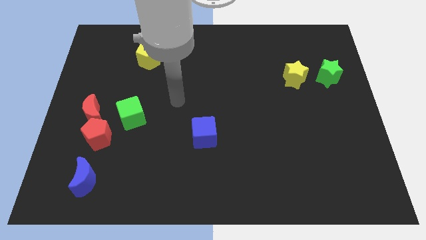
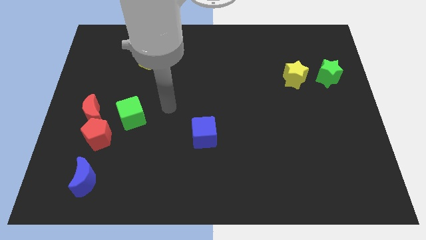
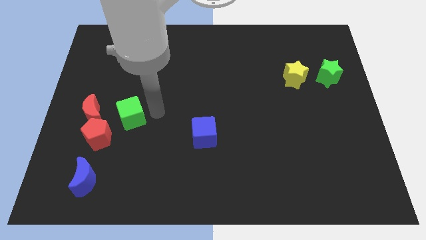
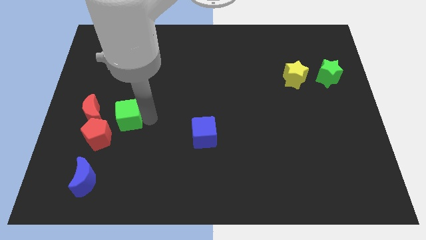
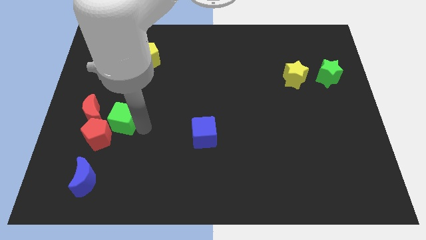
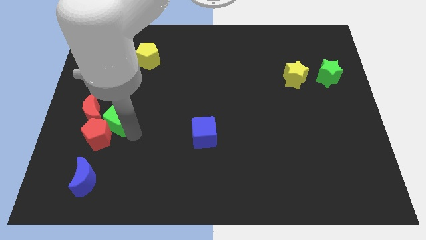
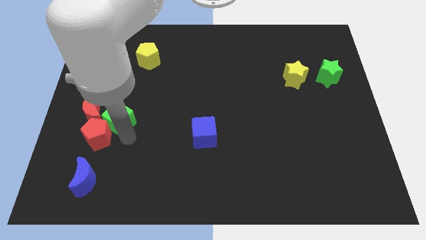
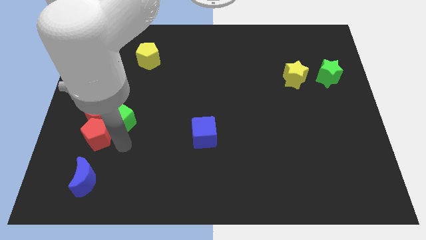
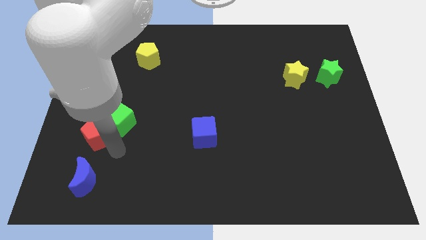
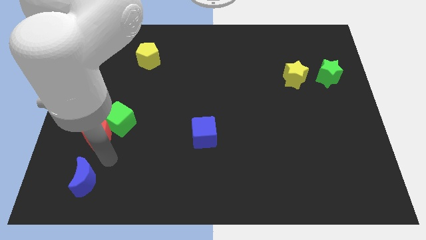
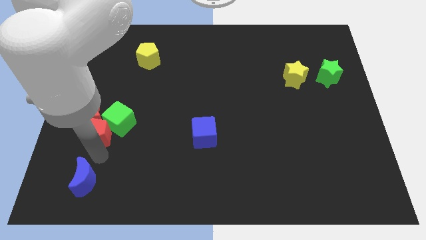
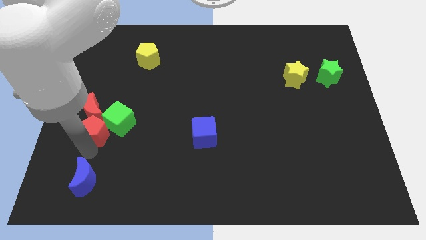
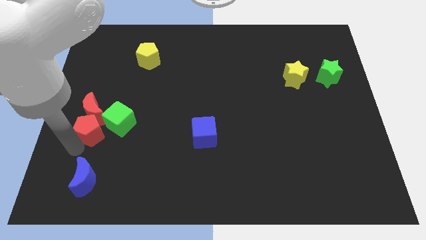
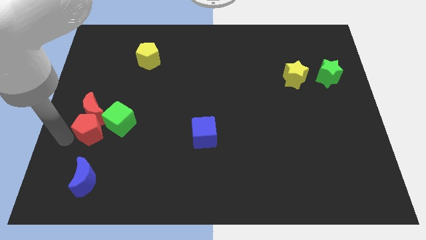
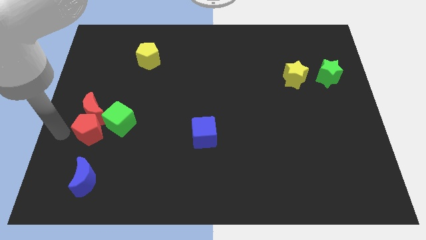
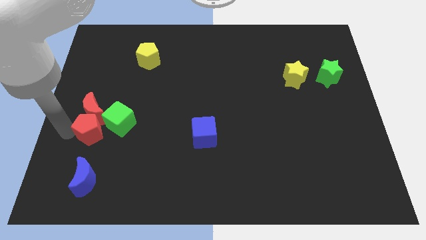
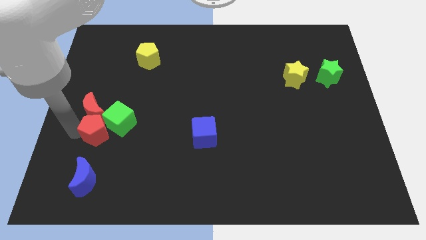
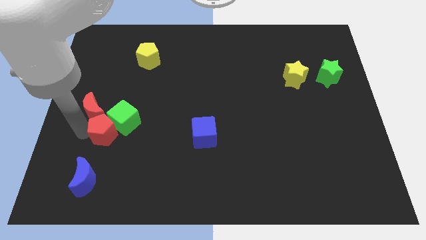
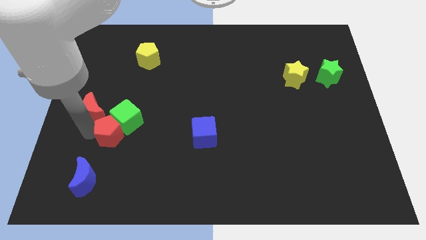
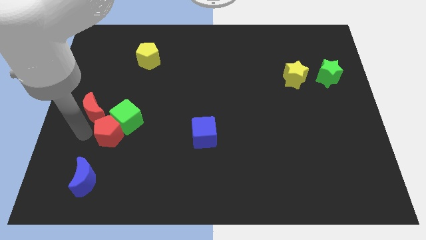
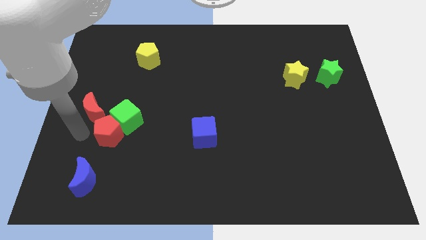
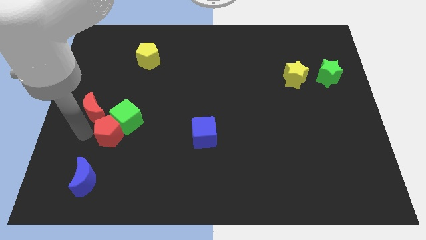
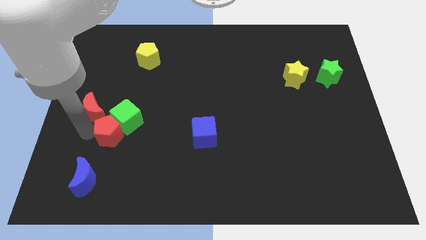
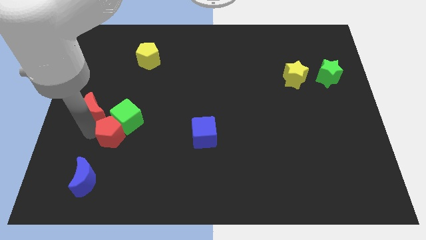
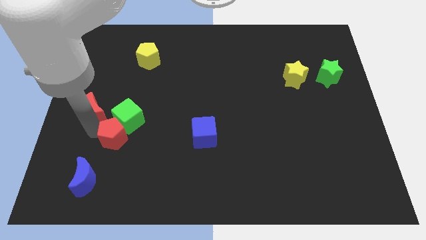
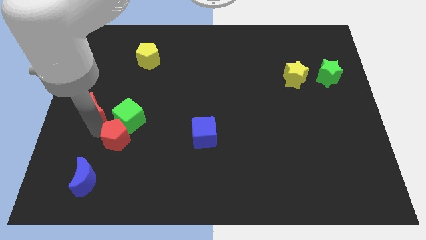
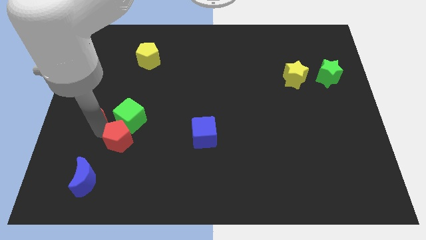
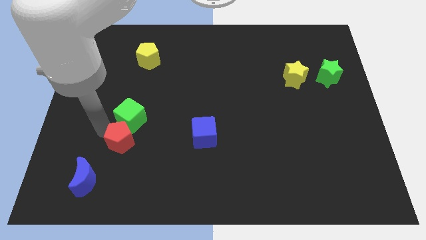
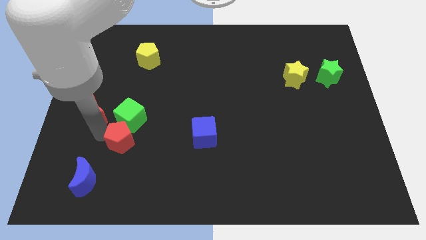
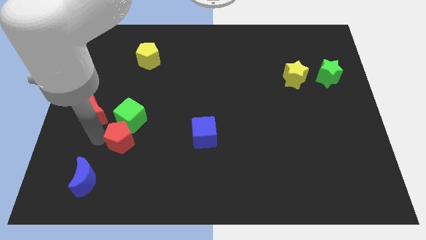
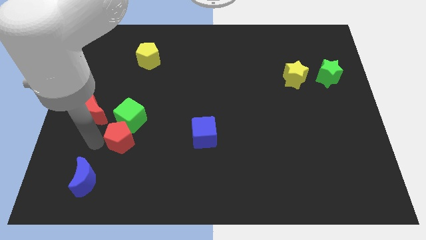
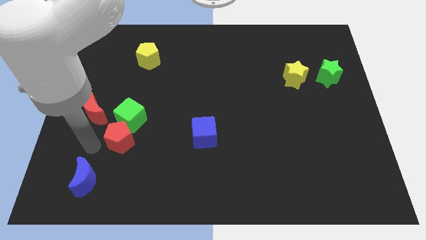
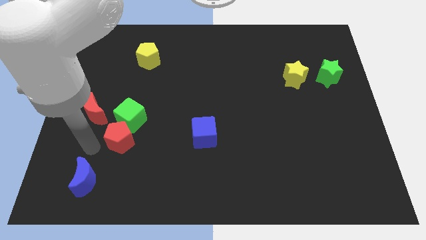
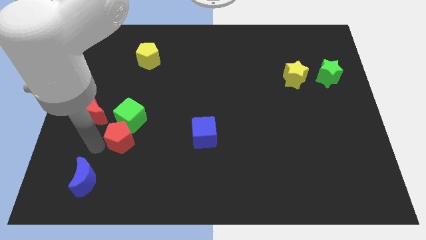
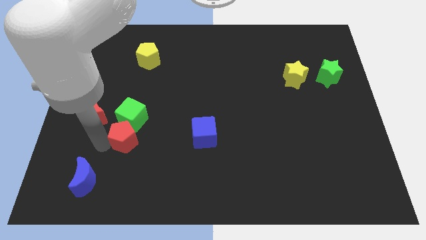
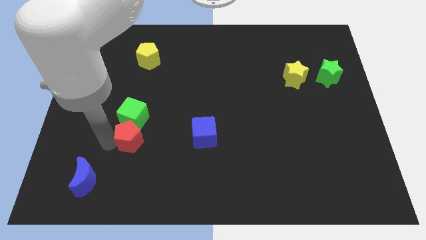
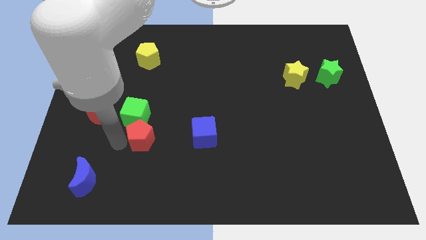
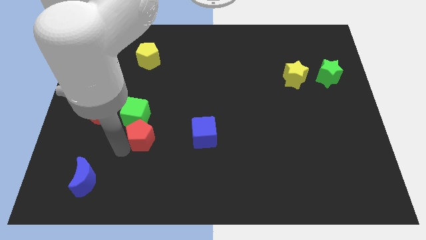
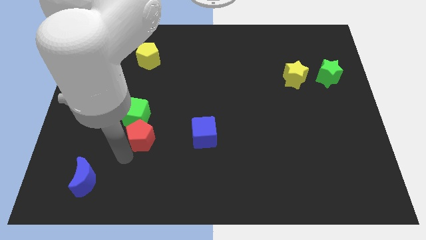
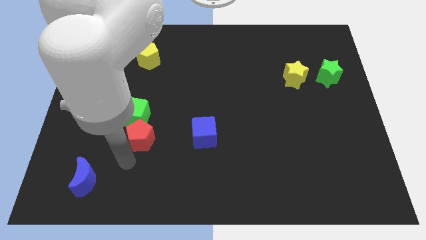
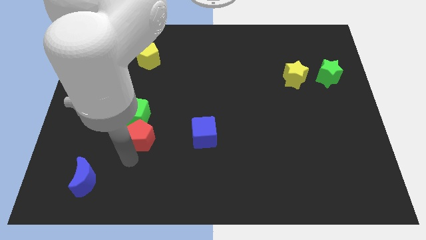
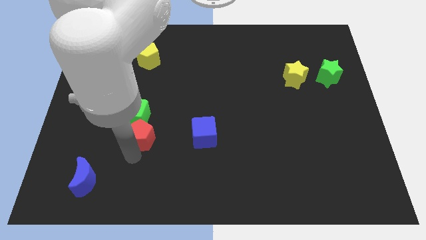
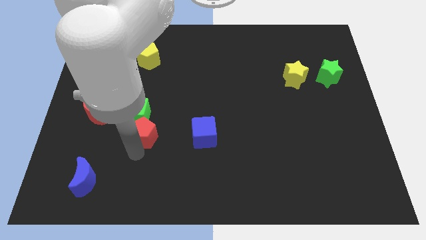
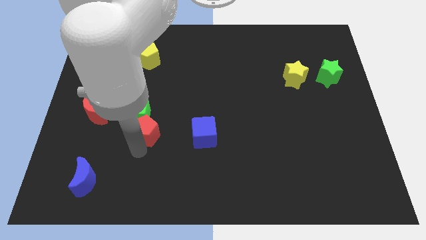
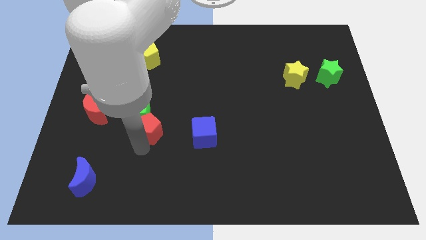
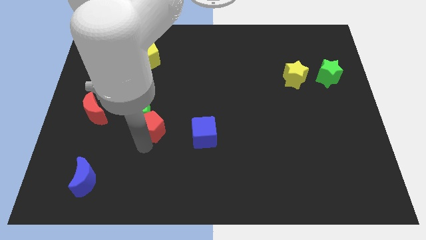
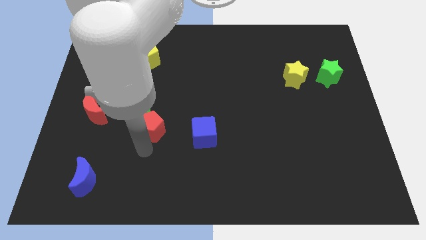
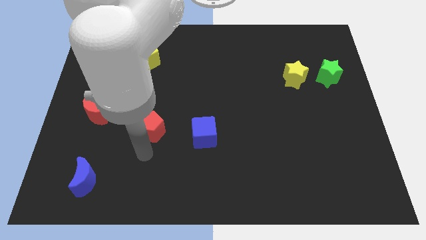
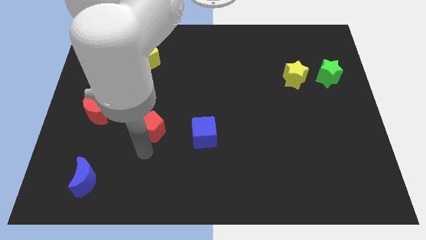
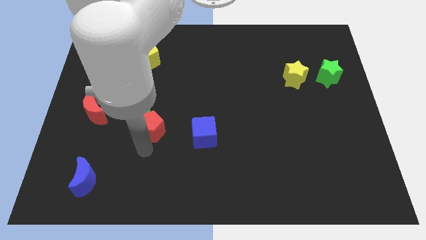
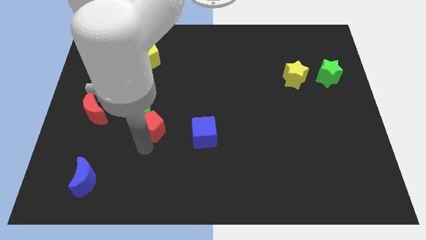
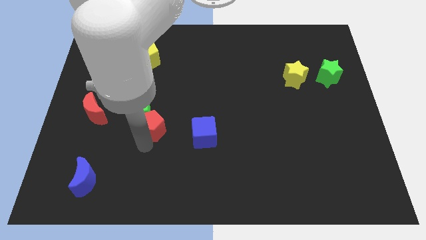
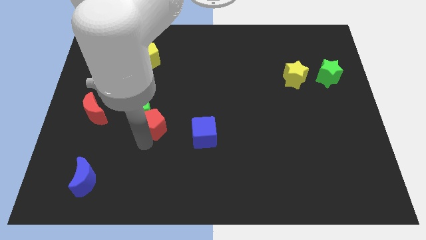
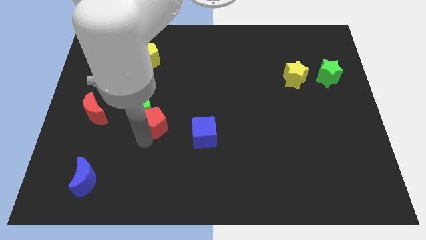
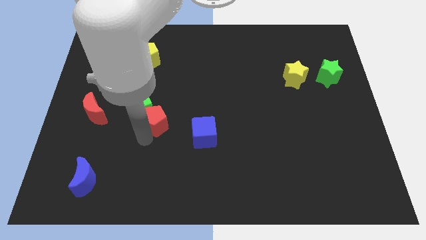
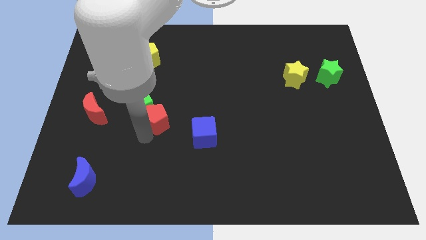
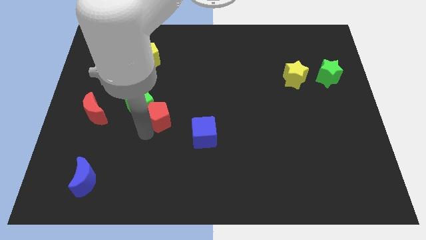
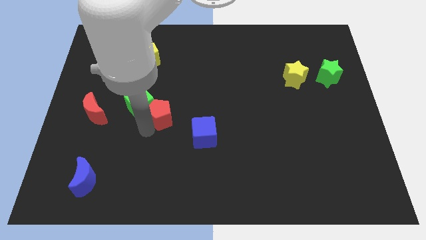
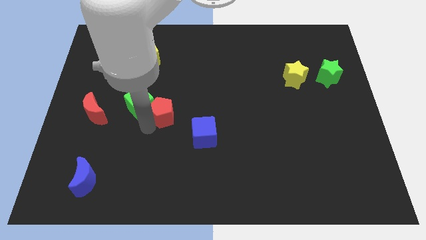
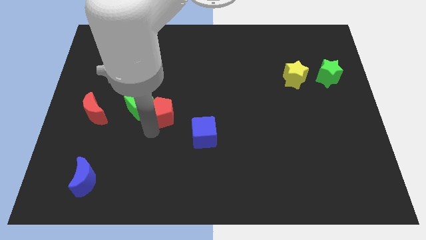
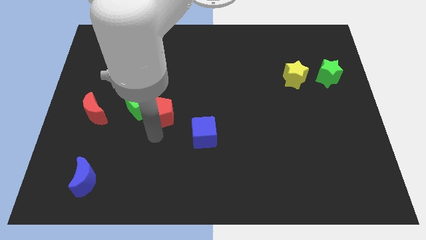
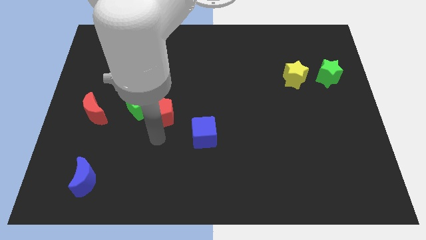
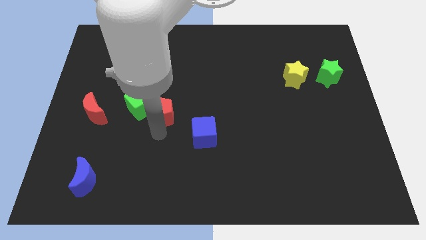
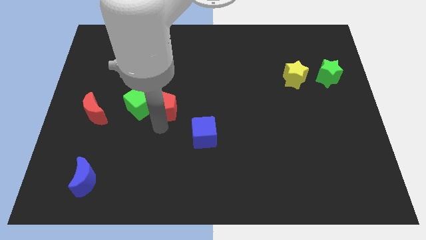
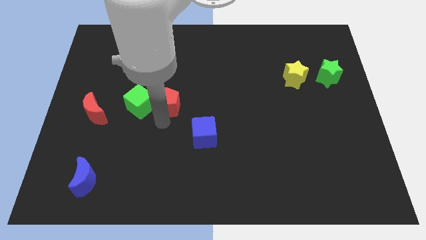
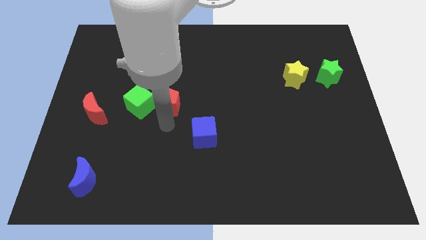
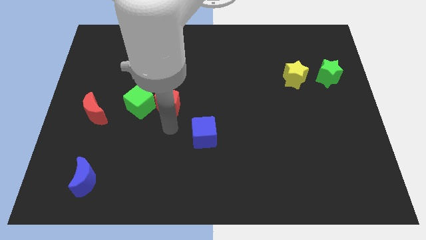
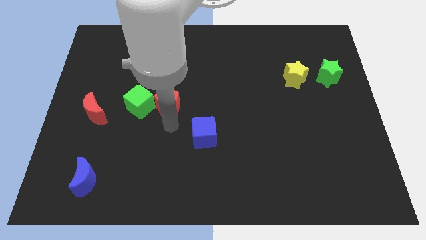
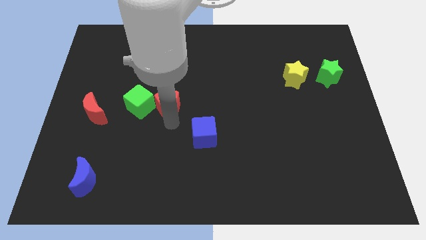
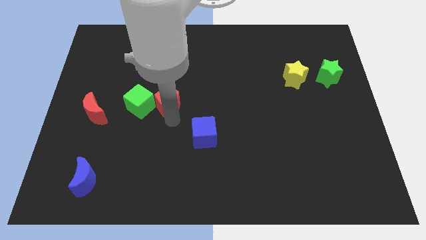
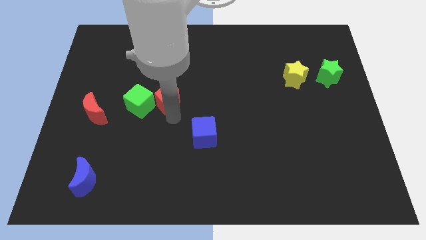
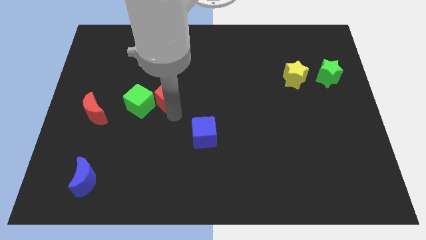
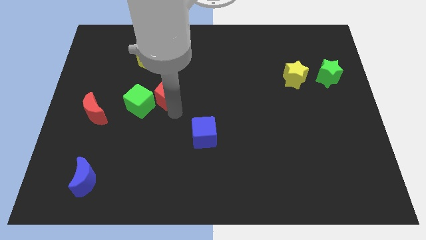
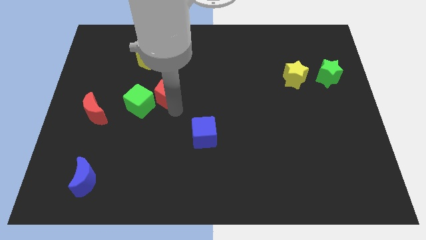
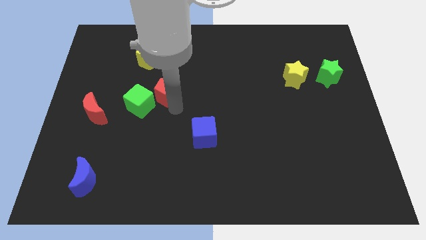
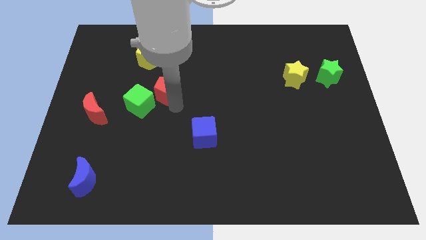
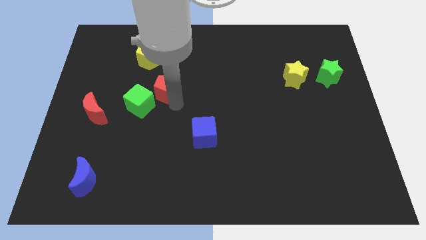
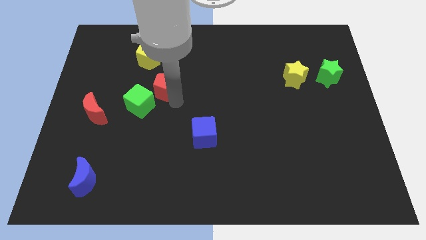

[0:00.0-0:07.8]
move the red pentagon diagonally down and to the right of the yellow pentagon

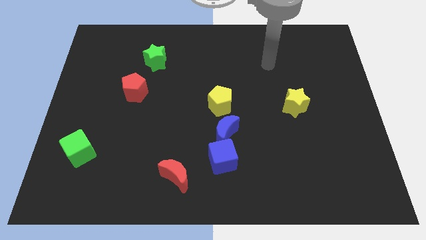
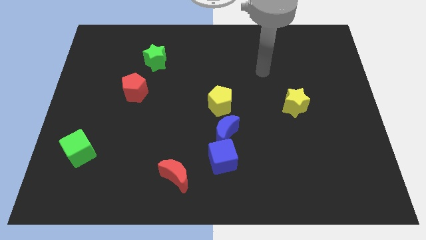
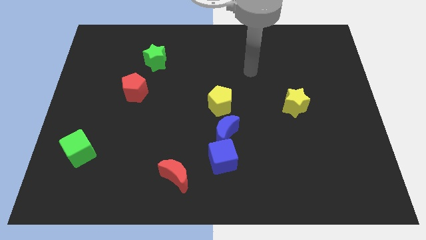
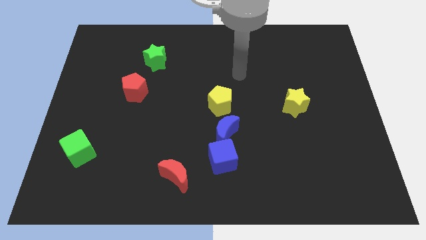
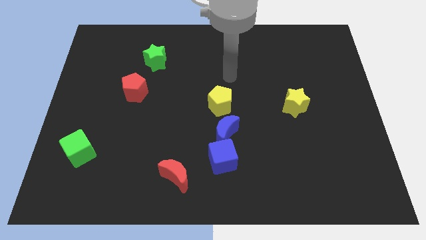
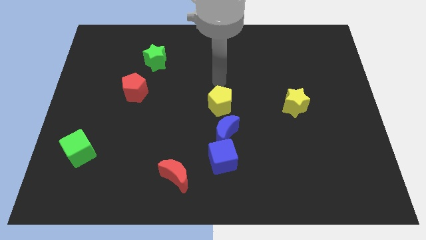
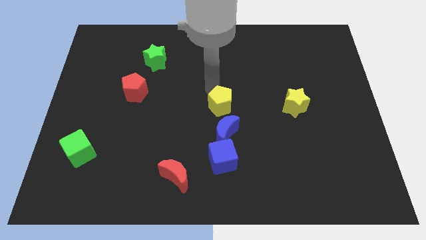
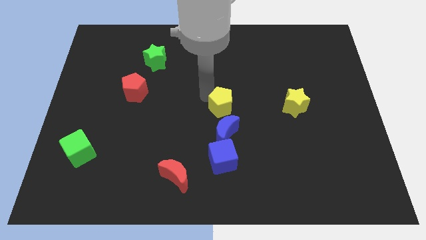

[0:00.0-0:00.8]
push the blue moon to the bottom right side of the yellow pentagon
